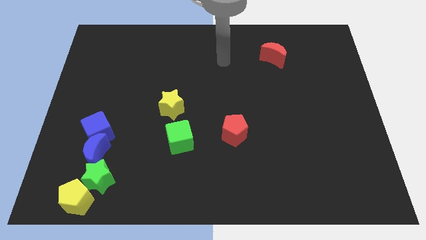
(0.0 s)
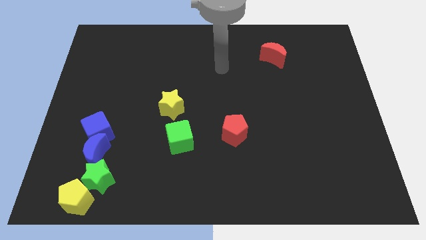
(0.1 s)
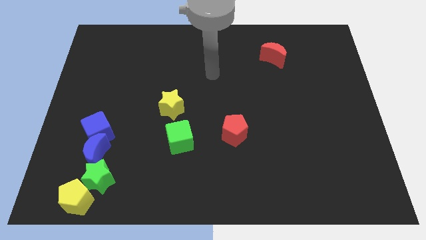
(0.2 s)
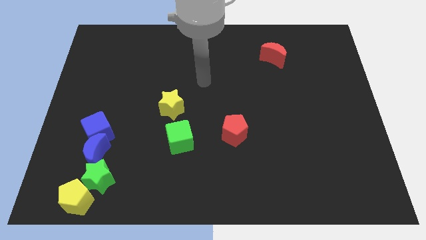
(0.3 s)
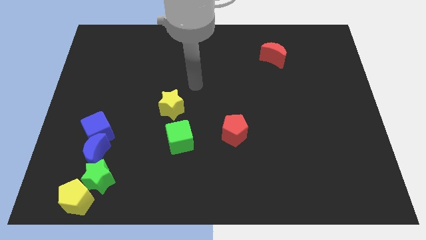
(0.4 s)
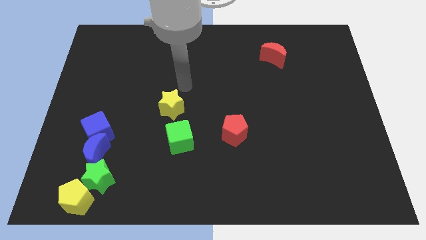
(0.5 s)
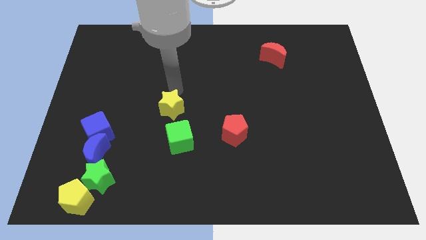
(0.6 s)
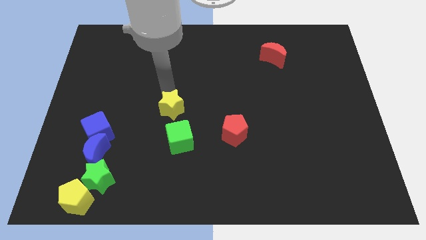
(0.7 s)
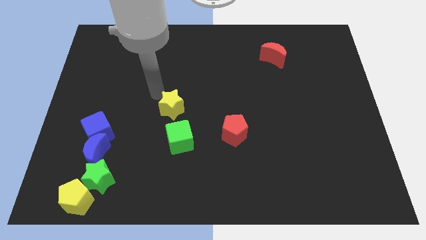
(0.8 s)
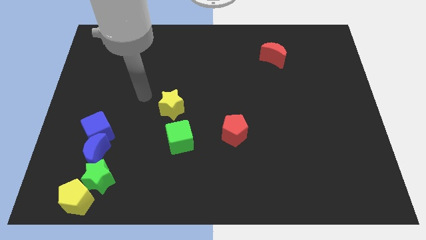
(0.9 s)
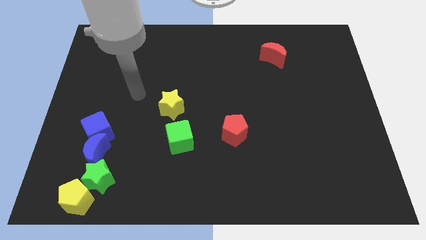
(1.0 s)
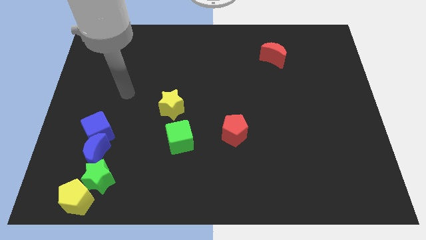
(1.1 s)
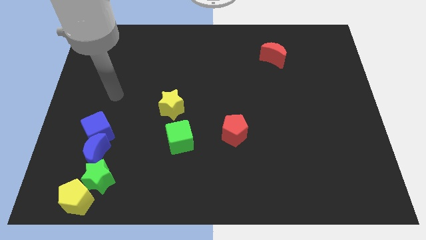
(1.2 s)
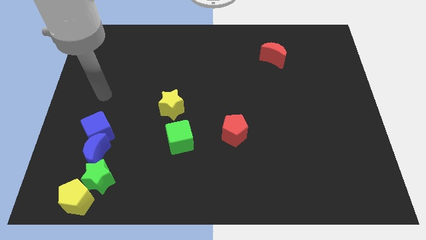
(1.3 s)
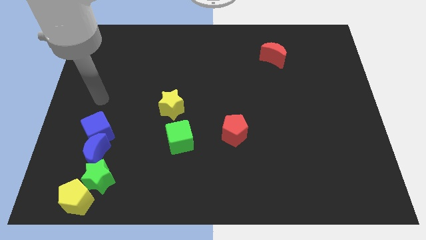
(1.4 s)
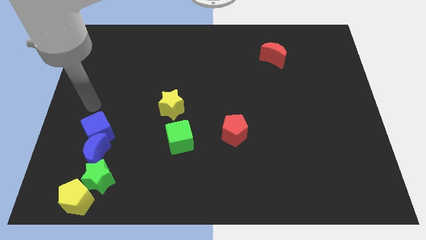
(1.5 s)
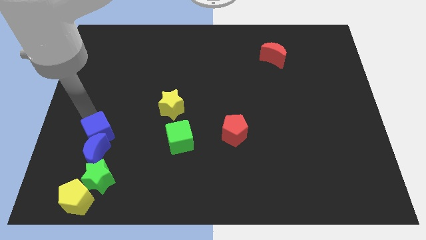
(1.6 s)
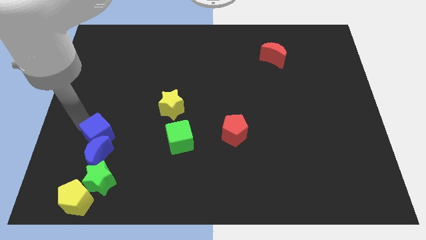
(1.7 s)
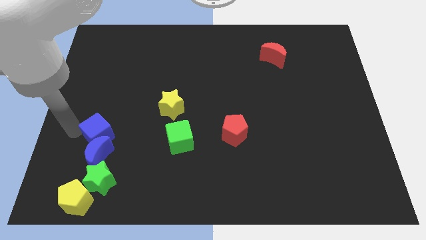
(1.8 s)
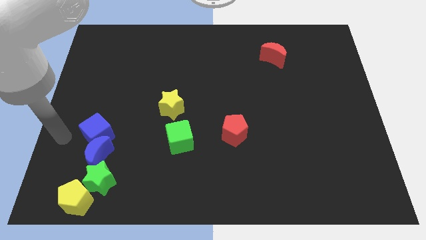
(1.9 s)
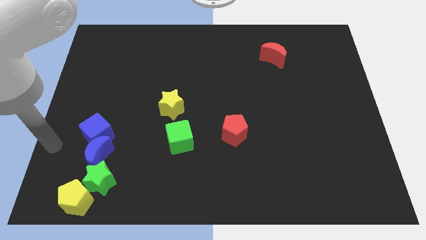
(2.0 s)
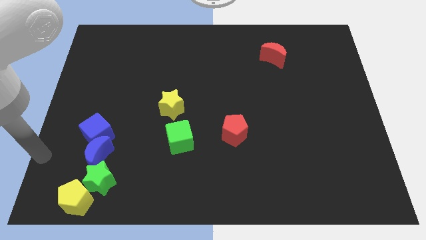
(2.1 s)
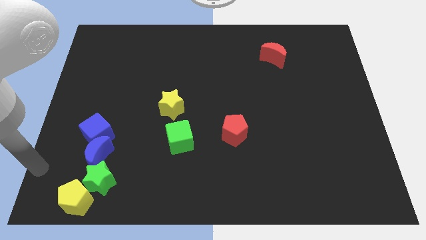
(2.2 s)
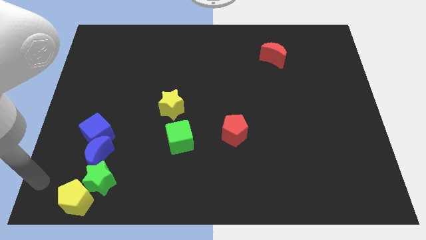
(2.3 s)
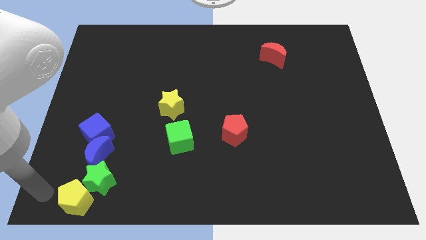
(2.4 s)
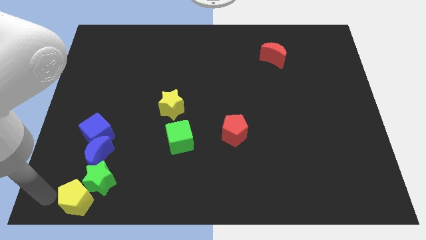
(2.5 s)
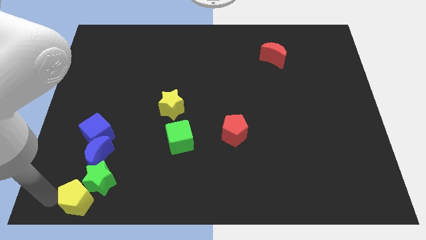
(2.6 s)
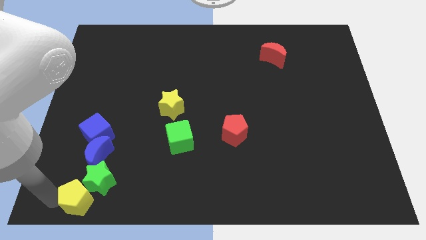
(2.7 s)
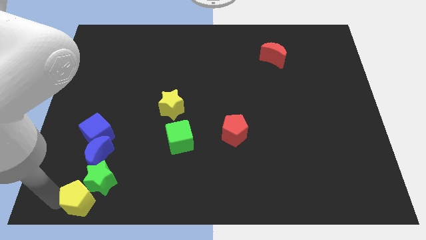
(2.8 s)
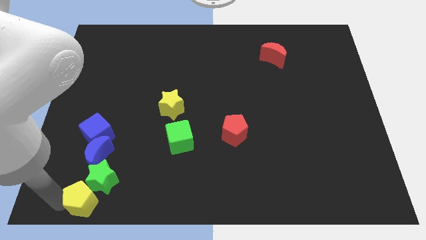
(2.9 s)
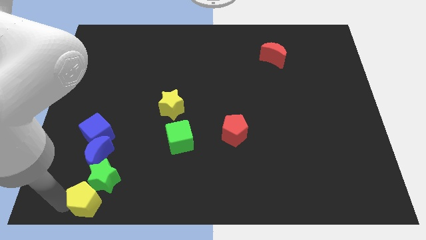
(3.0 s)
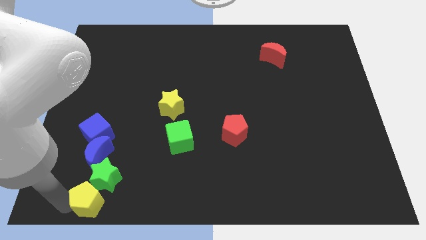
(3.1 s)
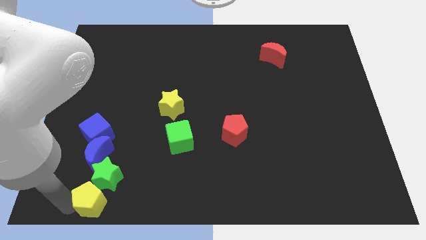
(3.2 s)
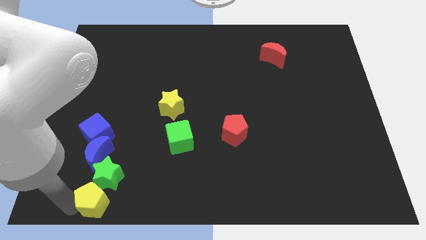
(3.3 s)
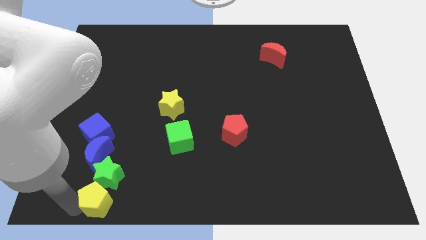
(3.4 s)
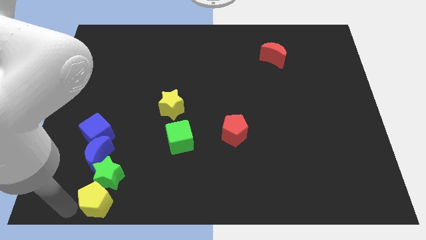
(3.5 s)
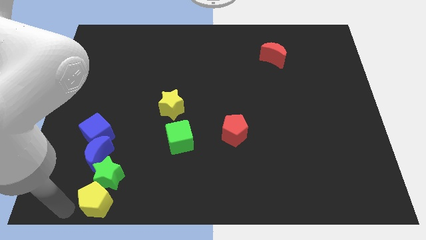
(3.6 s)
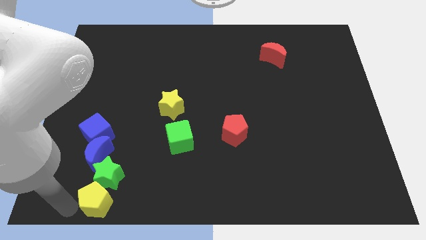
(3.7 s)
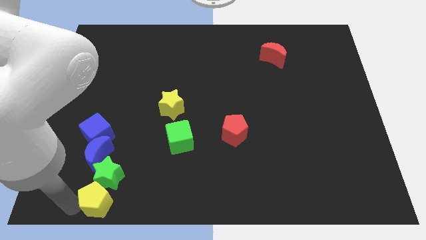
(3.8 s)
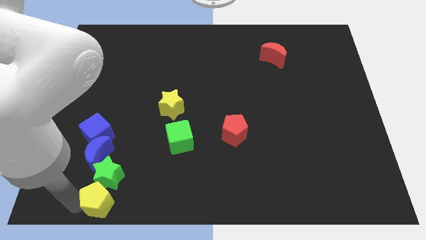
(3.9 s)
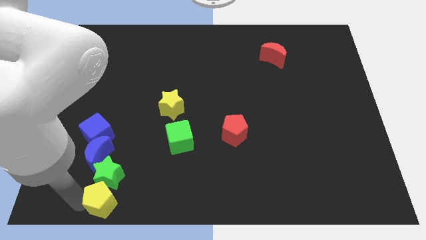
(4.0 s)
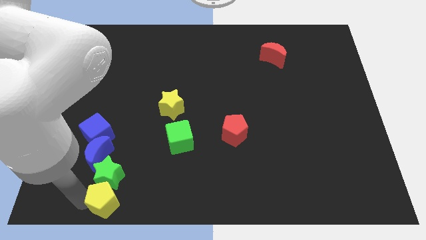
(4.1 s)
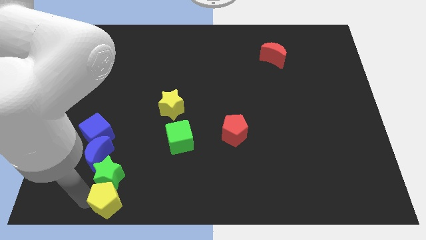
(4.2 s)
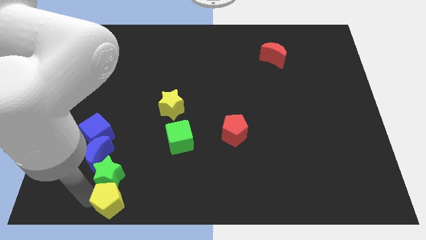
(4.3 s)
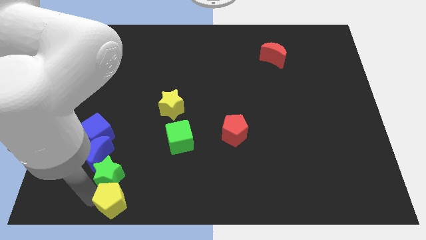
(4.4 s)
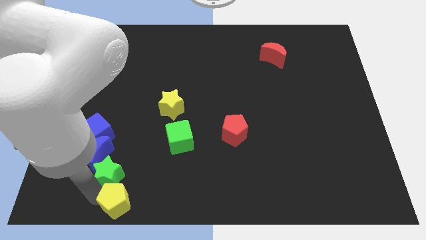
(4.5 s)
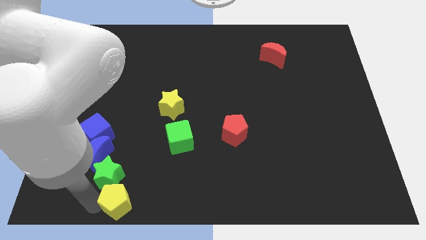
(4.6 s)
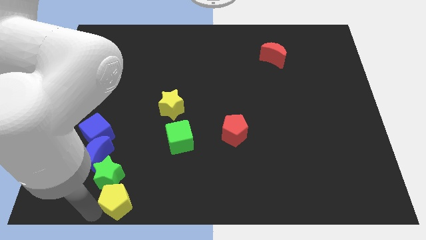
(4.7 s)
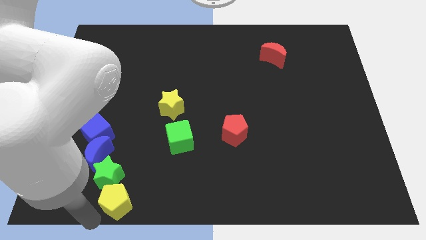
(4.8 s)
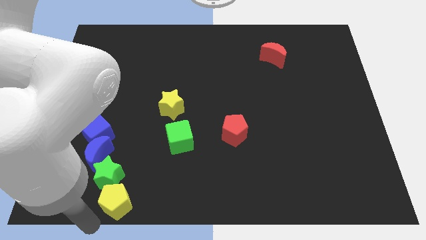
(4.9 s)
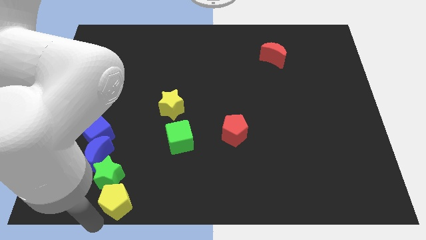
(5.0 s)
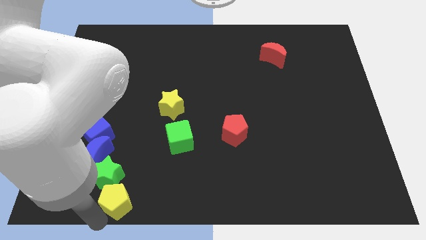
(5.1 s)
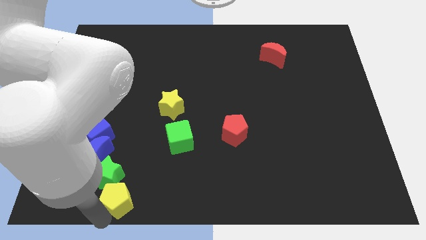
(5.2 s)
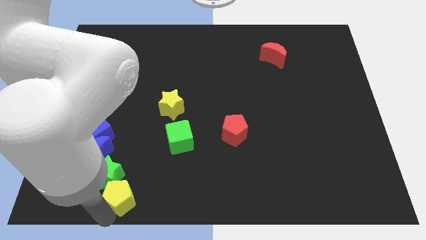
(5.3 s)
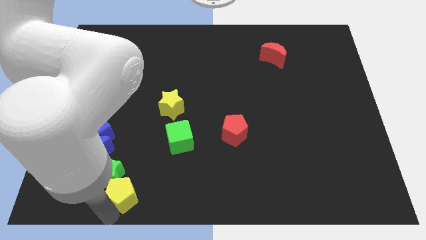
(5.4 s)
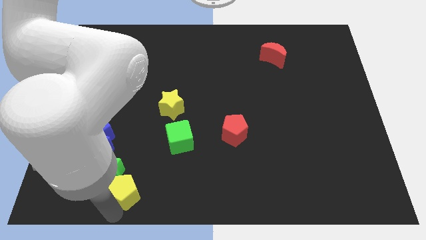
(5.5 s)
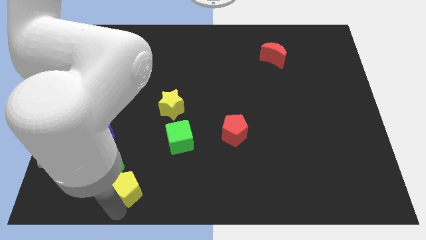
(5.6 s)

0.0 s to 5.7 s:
slightly move the yellow pentagon diagonally up and right

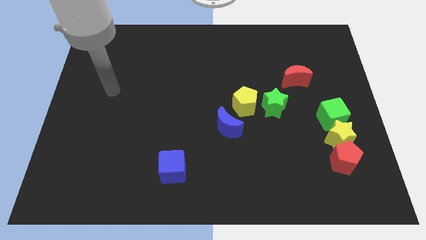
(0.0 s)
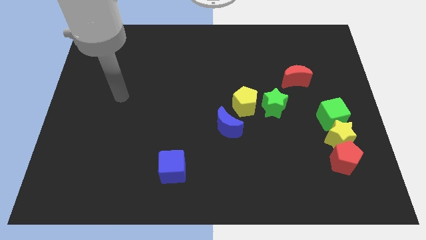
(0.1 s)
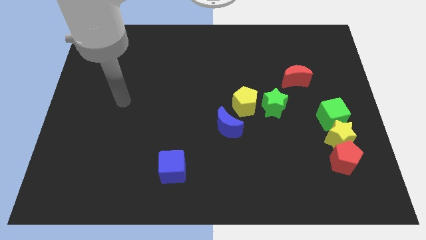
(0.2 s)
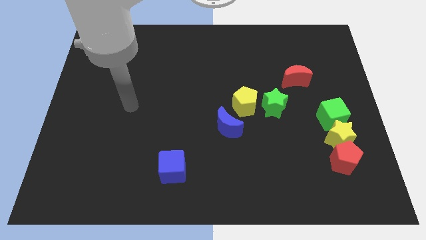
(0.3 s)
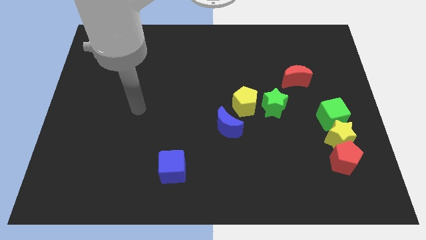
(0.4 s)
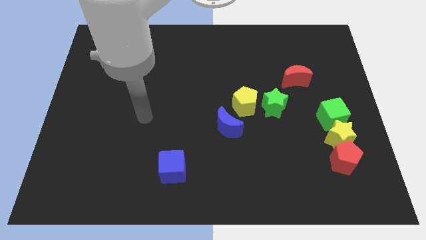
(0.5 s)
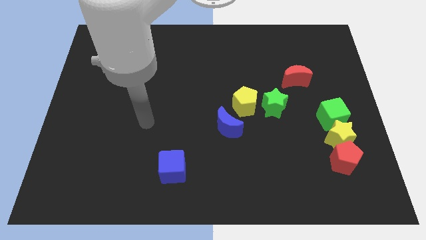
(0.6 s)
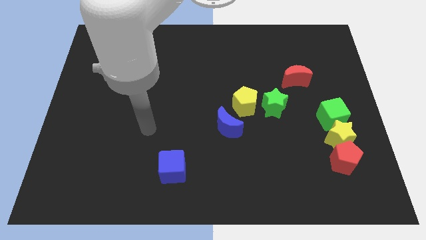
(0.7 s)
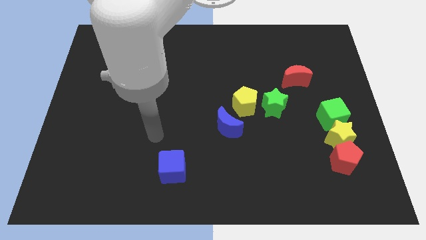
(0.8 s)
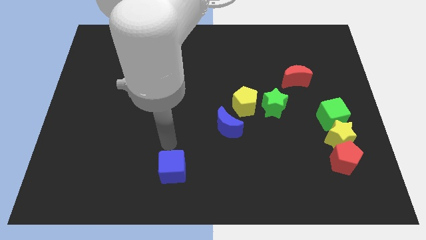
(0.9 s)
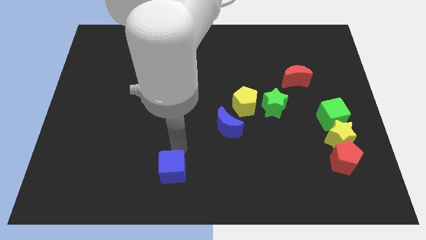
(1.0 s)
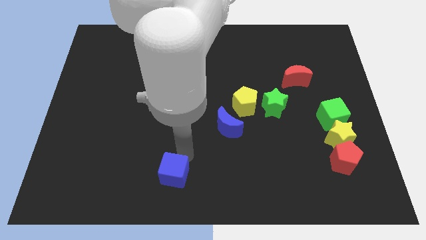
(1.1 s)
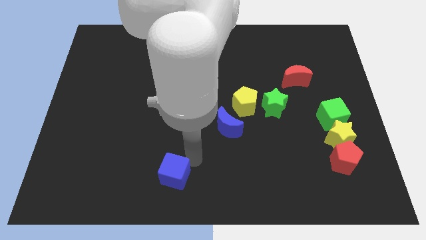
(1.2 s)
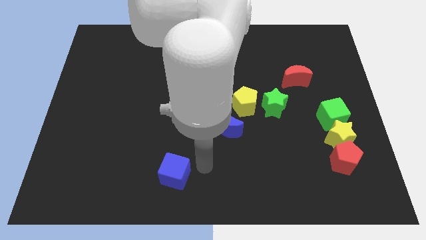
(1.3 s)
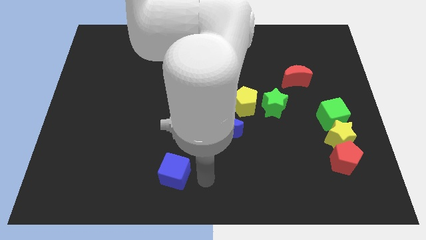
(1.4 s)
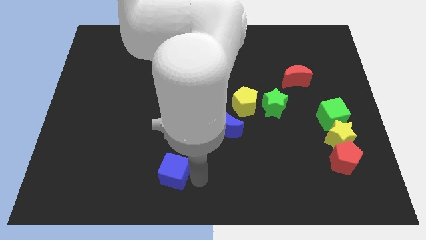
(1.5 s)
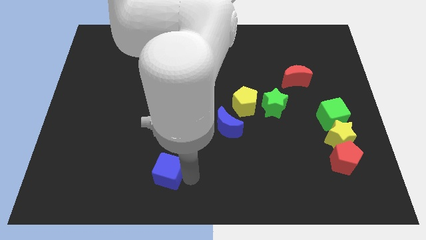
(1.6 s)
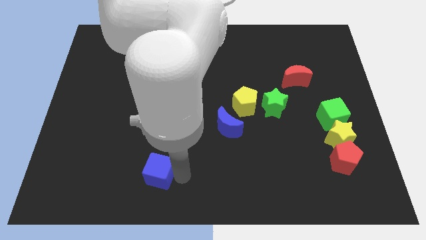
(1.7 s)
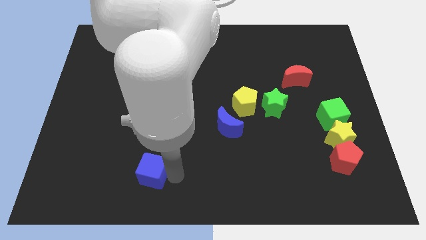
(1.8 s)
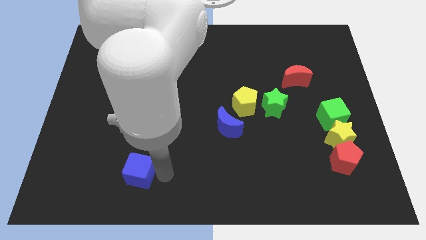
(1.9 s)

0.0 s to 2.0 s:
slide the blue cube a bit to the left

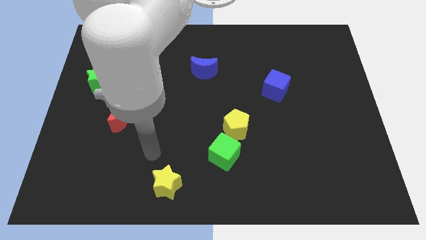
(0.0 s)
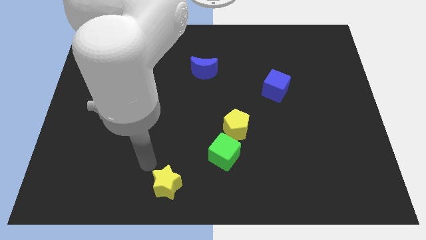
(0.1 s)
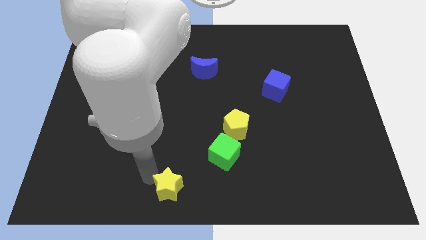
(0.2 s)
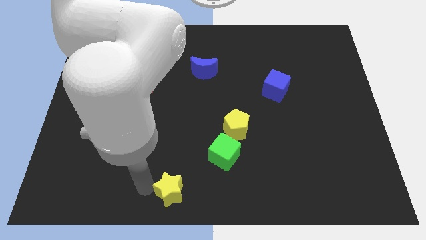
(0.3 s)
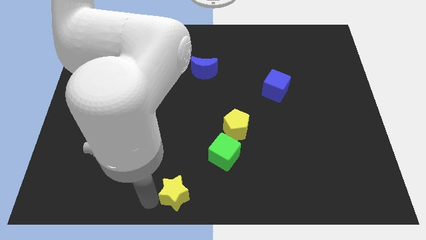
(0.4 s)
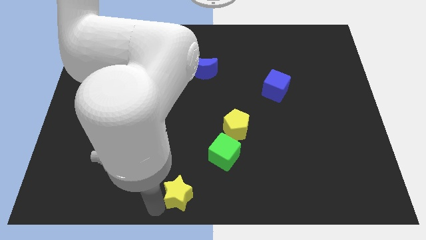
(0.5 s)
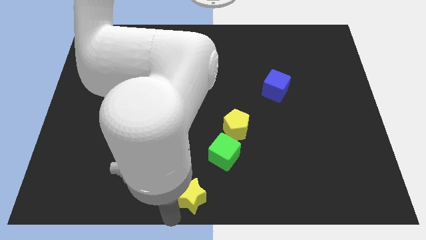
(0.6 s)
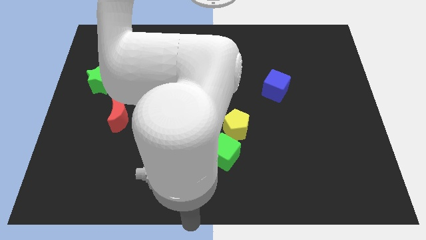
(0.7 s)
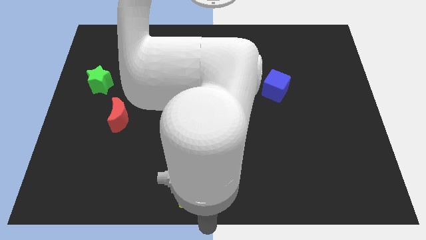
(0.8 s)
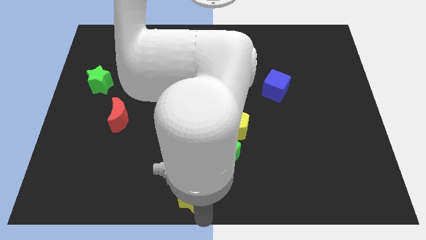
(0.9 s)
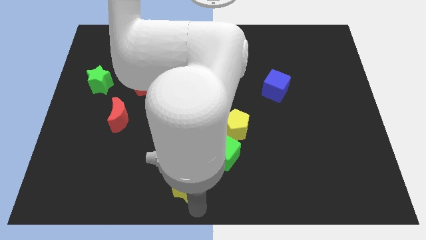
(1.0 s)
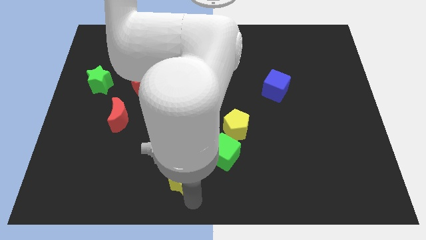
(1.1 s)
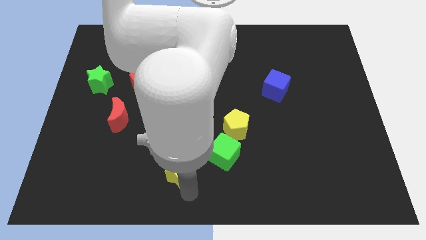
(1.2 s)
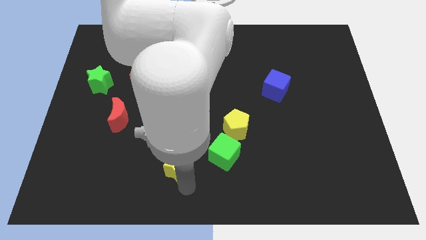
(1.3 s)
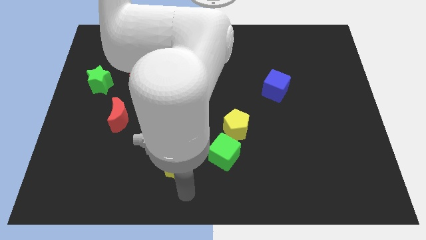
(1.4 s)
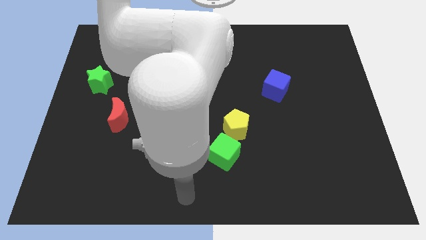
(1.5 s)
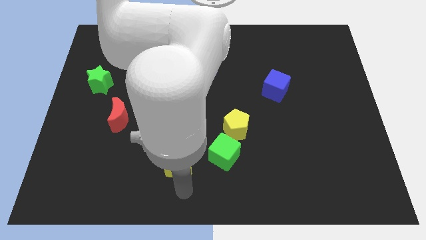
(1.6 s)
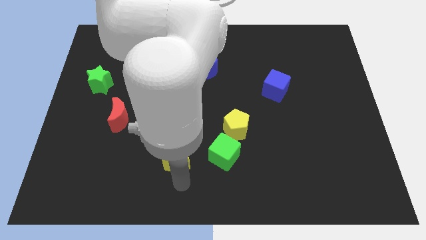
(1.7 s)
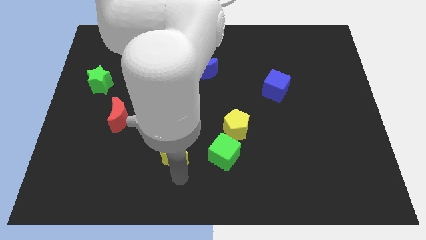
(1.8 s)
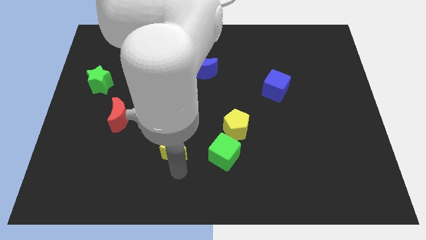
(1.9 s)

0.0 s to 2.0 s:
move the yellow star a bit up
